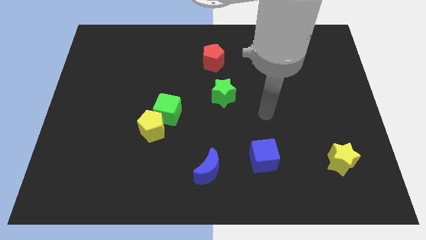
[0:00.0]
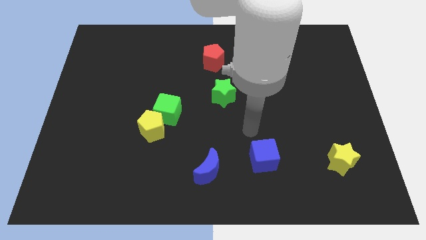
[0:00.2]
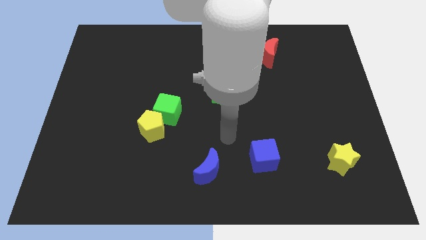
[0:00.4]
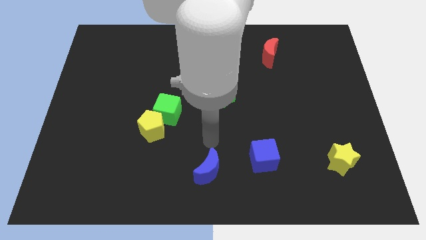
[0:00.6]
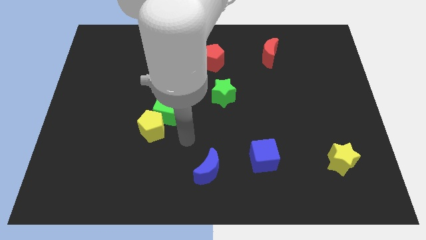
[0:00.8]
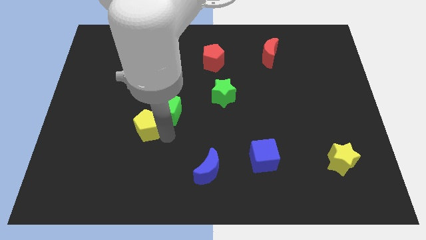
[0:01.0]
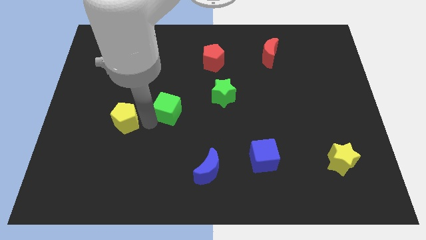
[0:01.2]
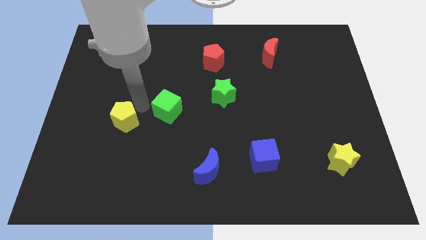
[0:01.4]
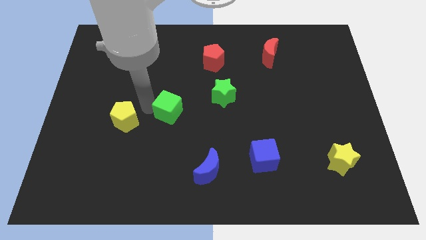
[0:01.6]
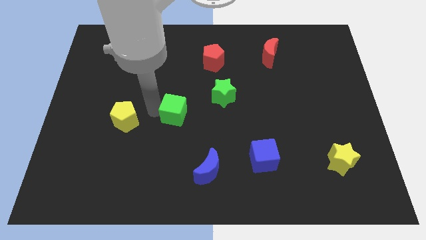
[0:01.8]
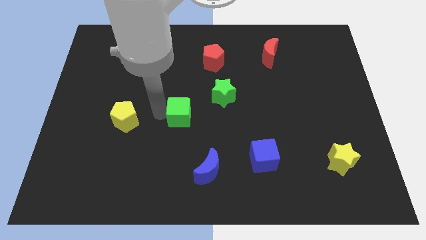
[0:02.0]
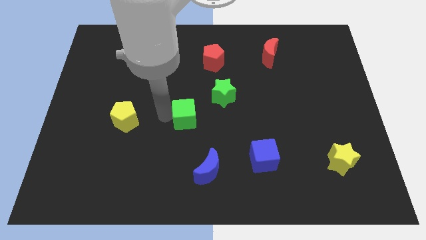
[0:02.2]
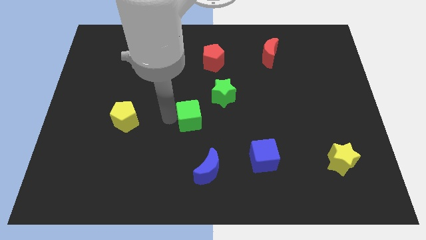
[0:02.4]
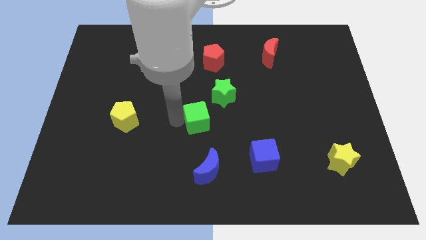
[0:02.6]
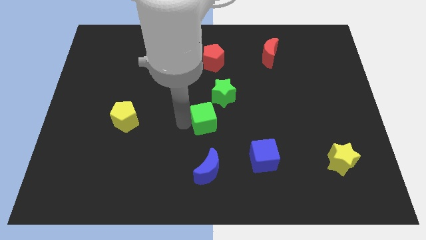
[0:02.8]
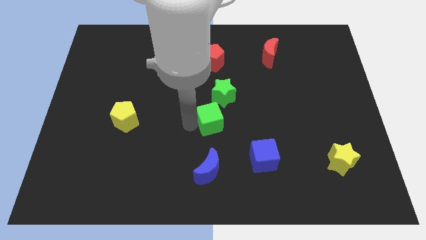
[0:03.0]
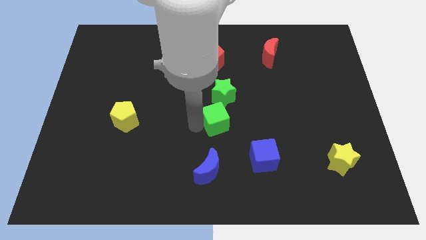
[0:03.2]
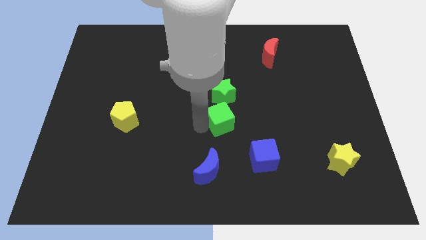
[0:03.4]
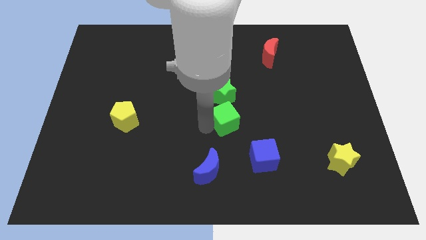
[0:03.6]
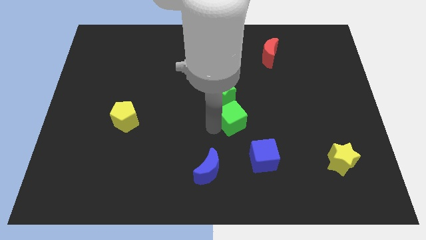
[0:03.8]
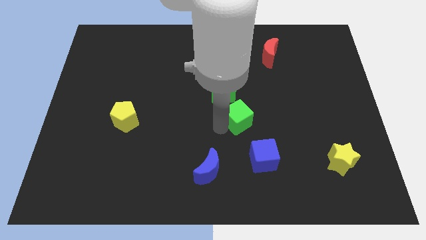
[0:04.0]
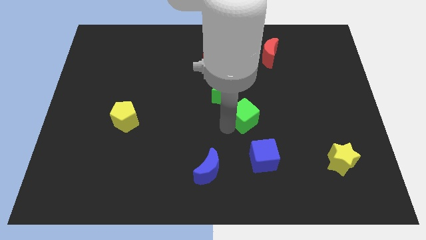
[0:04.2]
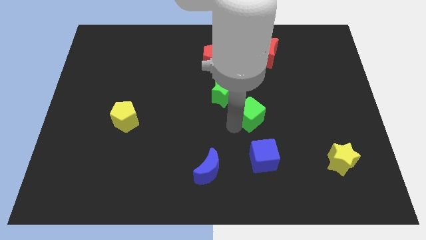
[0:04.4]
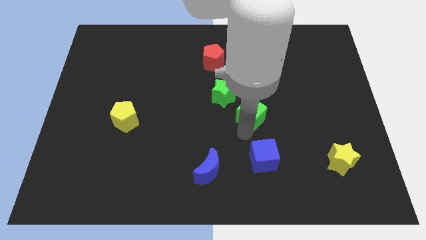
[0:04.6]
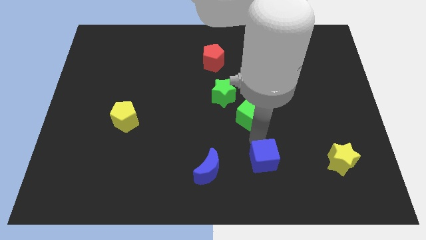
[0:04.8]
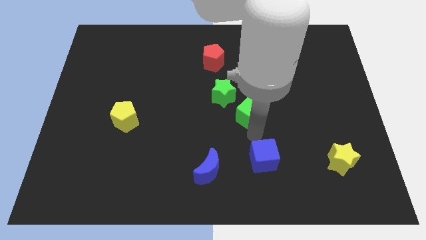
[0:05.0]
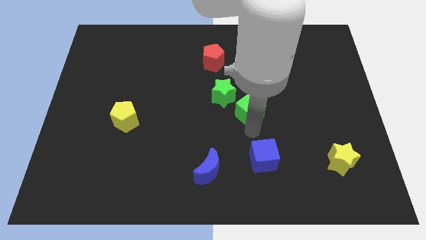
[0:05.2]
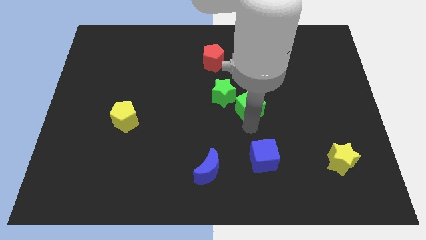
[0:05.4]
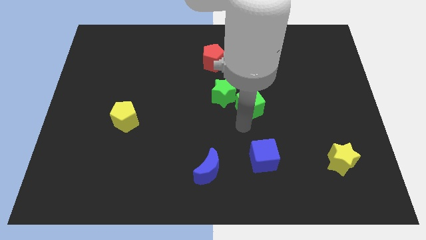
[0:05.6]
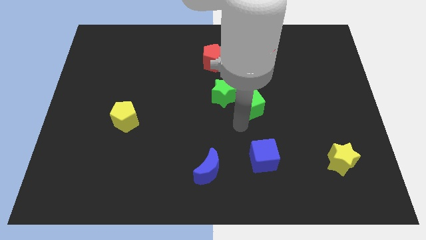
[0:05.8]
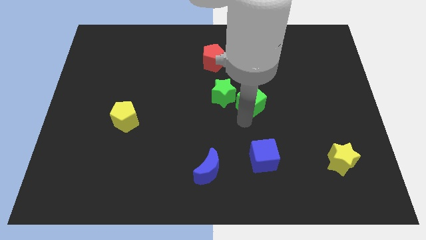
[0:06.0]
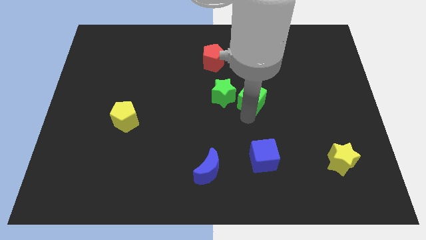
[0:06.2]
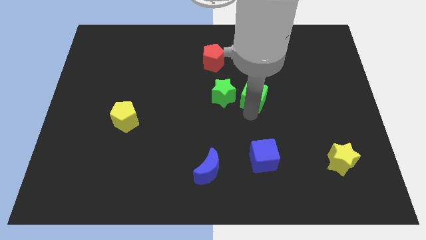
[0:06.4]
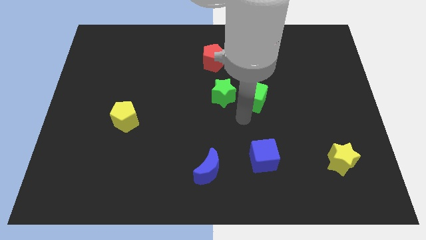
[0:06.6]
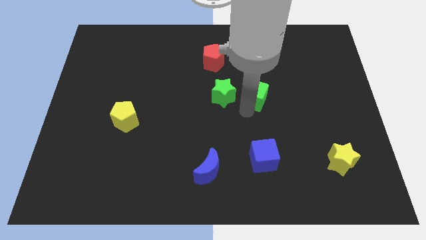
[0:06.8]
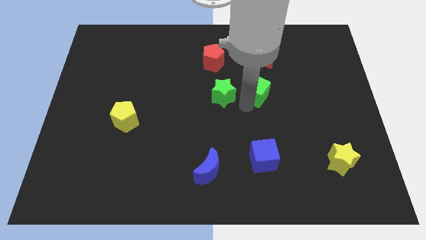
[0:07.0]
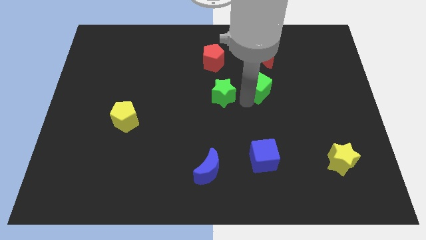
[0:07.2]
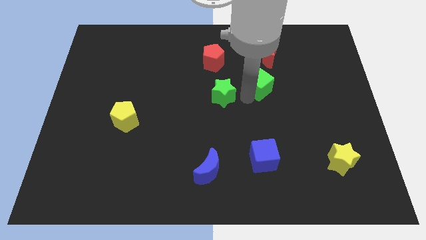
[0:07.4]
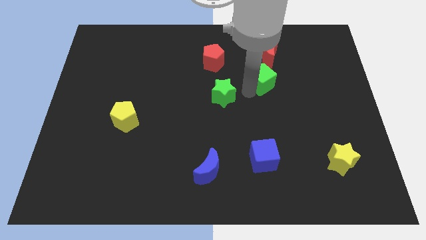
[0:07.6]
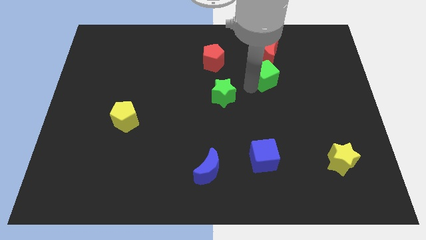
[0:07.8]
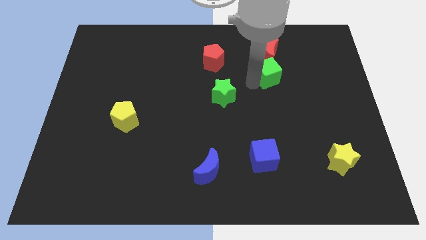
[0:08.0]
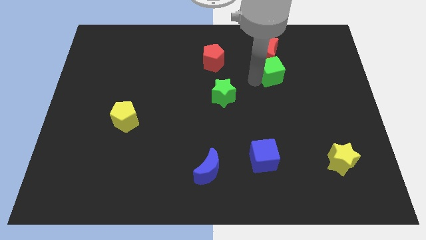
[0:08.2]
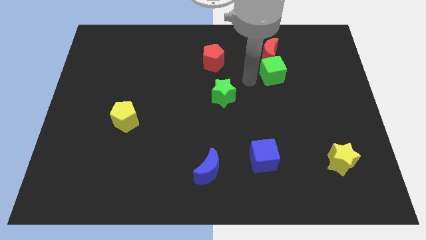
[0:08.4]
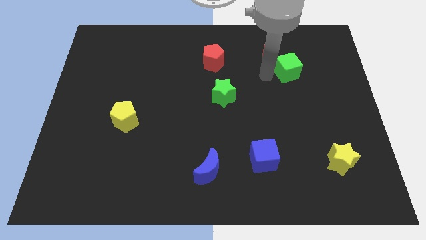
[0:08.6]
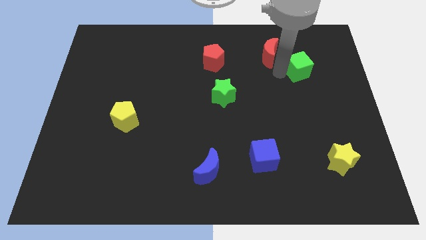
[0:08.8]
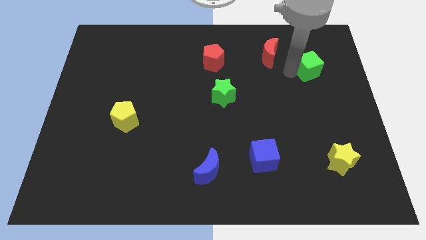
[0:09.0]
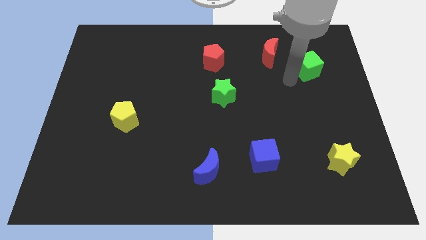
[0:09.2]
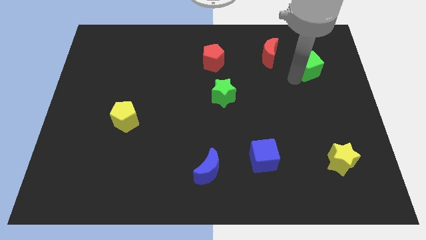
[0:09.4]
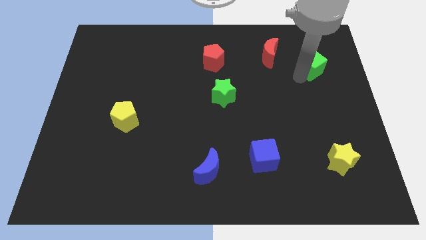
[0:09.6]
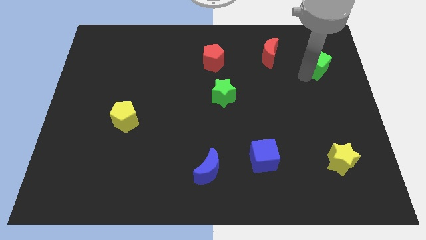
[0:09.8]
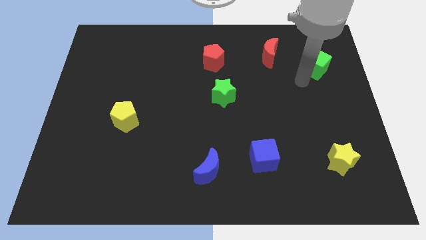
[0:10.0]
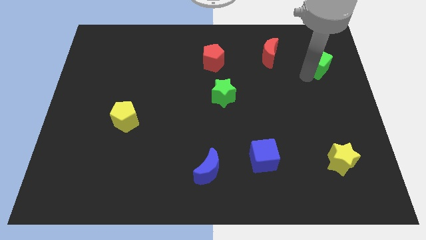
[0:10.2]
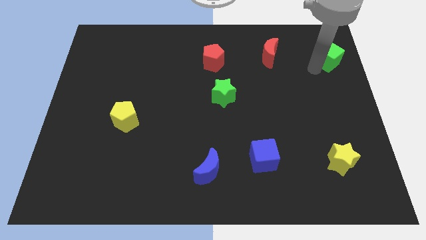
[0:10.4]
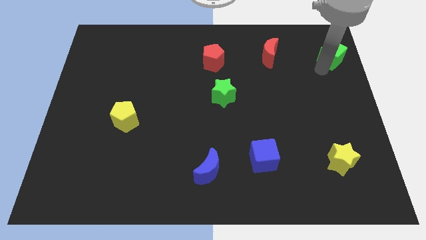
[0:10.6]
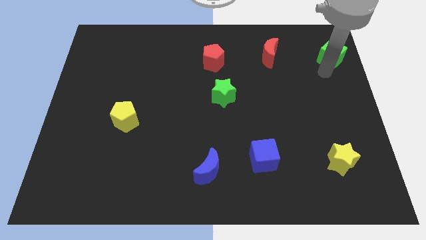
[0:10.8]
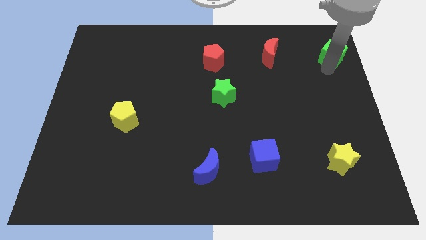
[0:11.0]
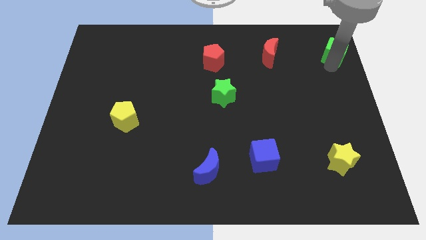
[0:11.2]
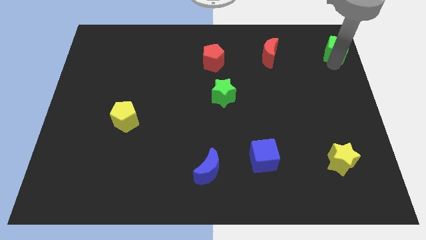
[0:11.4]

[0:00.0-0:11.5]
move the green cube to the top right corner

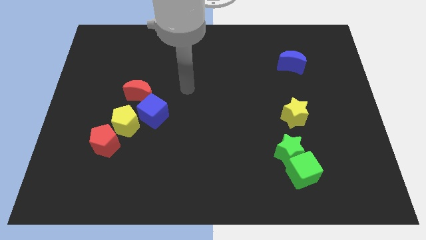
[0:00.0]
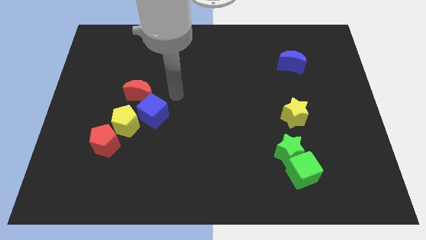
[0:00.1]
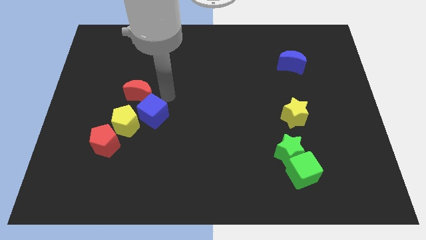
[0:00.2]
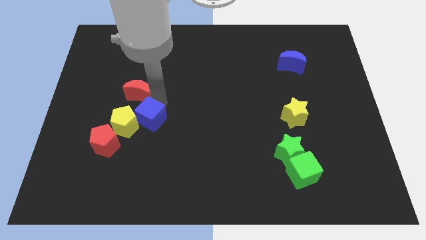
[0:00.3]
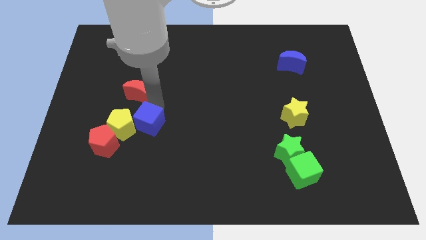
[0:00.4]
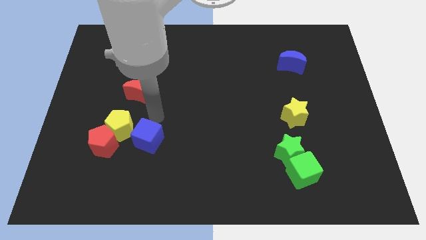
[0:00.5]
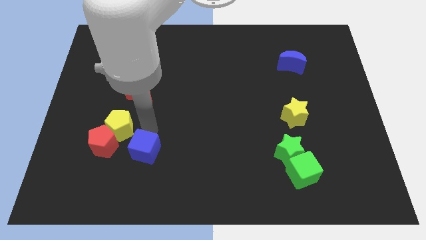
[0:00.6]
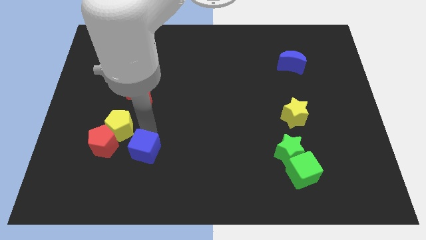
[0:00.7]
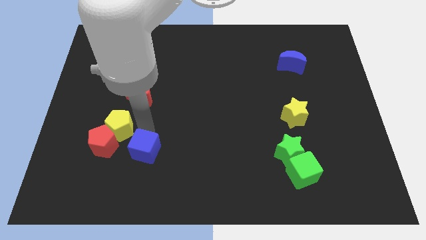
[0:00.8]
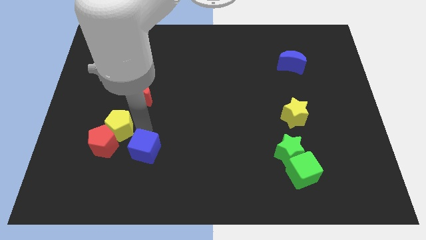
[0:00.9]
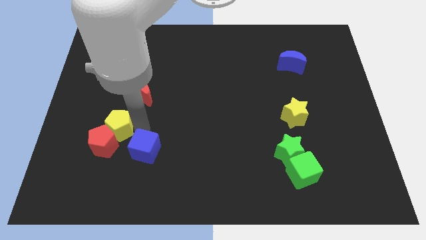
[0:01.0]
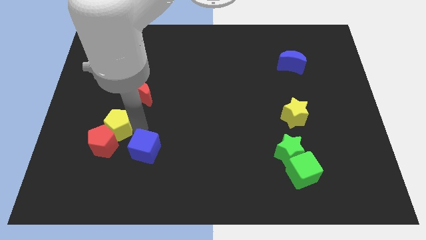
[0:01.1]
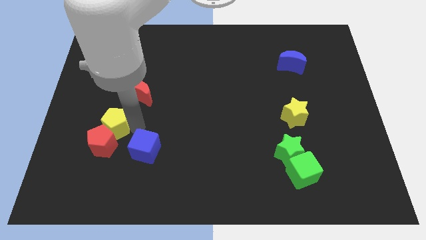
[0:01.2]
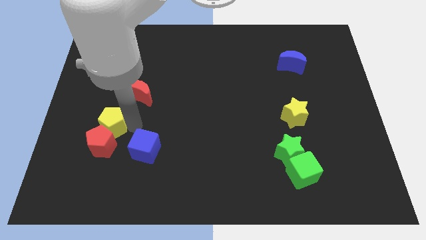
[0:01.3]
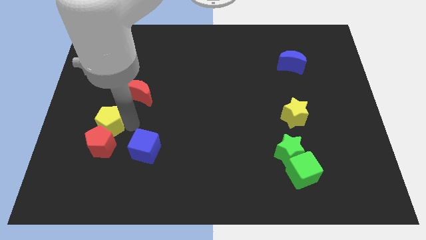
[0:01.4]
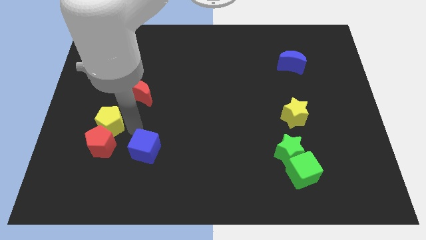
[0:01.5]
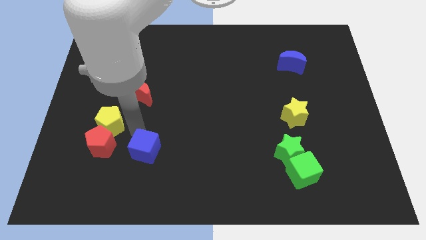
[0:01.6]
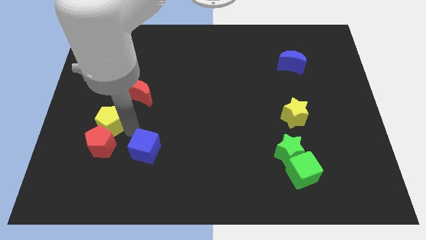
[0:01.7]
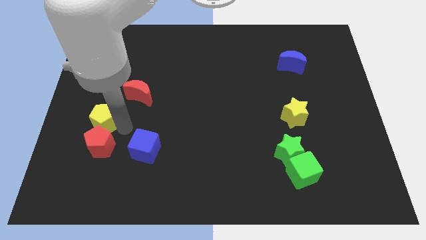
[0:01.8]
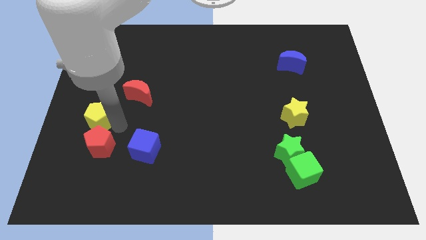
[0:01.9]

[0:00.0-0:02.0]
move the yellow pentagon to the center left
